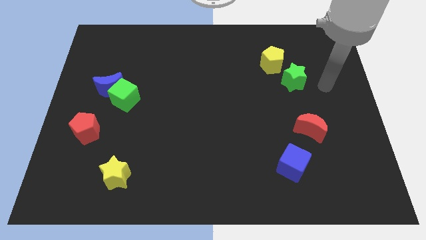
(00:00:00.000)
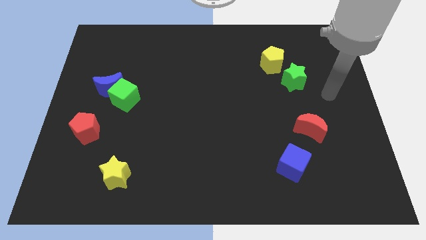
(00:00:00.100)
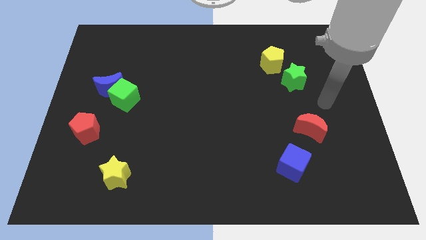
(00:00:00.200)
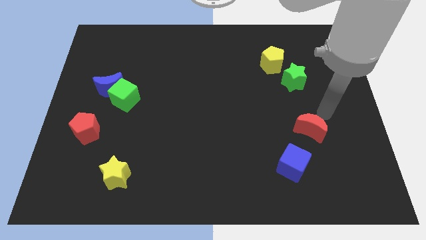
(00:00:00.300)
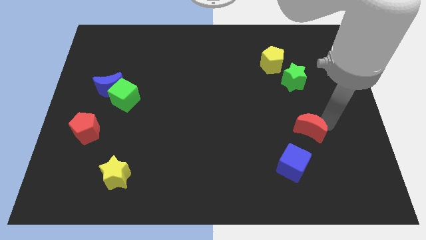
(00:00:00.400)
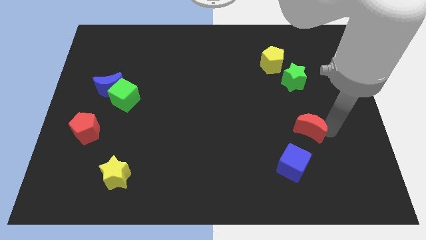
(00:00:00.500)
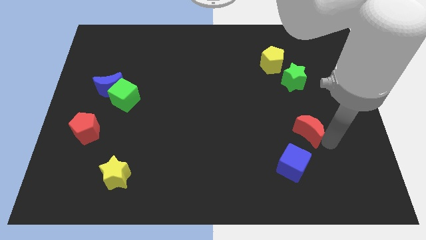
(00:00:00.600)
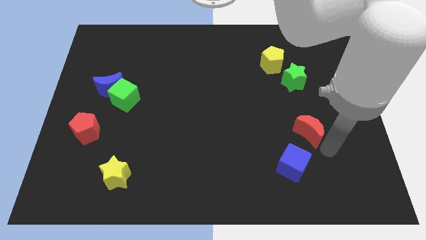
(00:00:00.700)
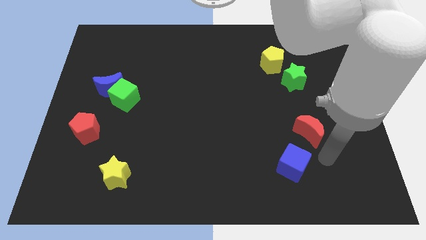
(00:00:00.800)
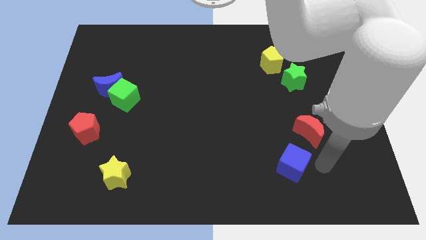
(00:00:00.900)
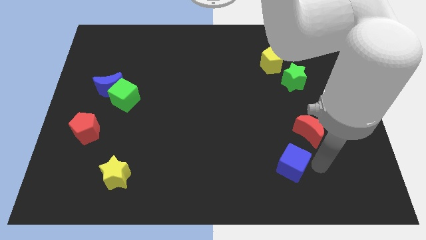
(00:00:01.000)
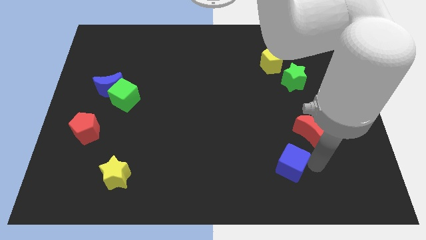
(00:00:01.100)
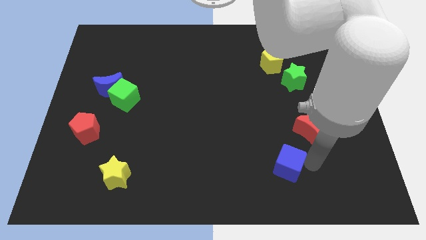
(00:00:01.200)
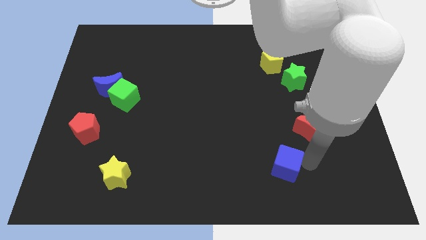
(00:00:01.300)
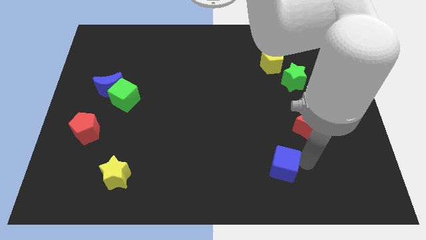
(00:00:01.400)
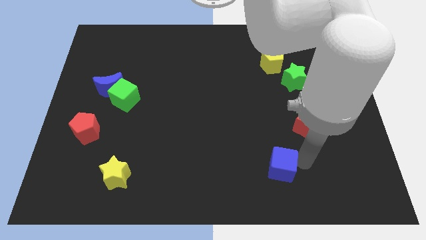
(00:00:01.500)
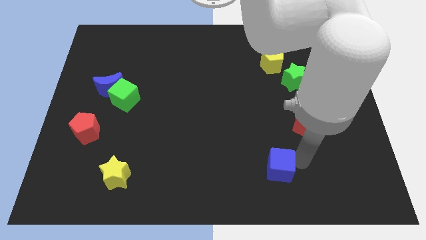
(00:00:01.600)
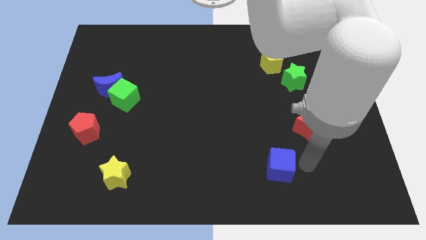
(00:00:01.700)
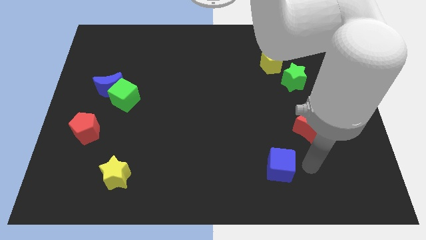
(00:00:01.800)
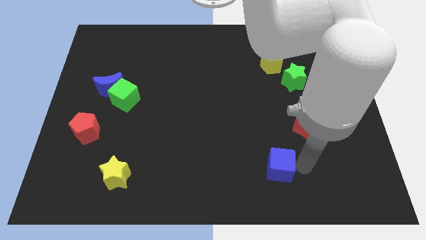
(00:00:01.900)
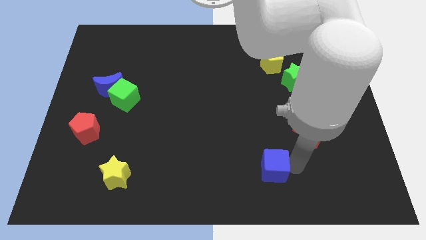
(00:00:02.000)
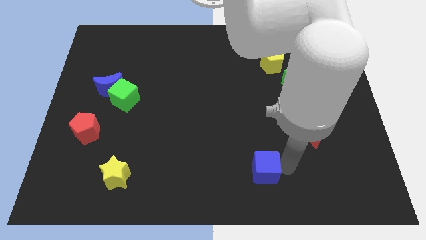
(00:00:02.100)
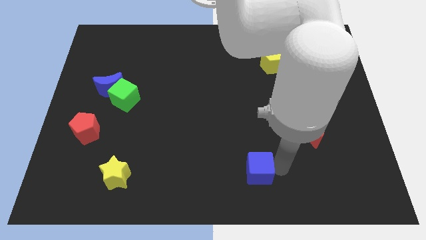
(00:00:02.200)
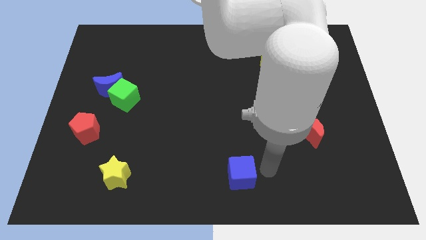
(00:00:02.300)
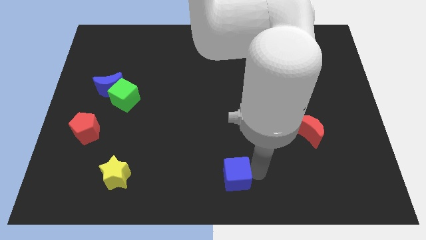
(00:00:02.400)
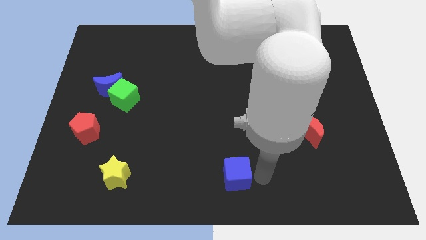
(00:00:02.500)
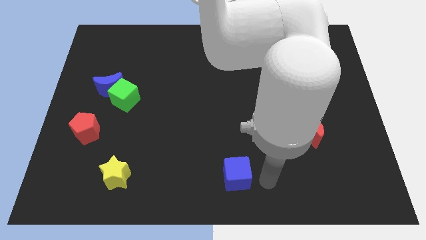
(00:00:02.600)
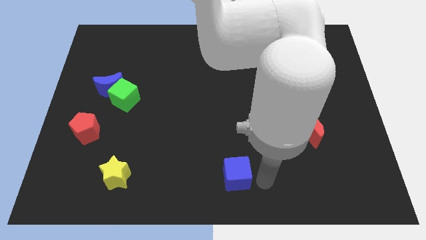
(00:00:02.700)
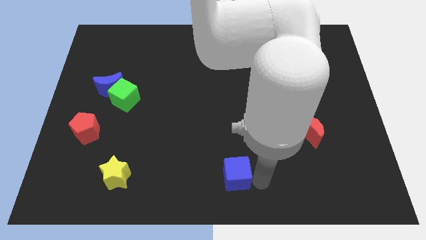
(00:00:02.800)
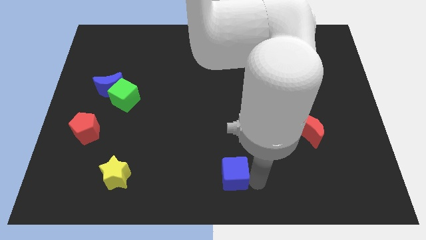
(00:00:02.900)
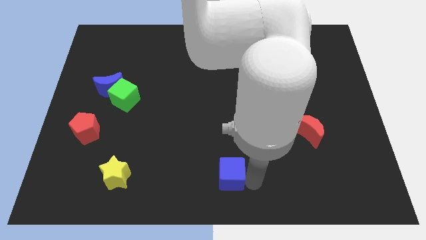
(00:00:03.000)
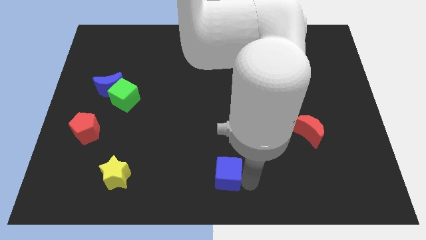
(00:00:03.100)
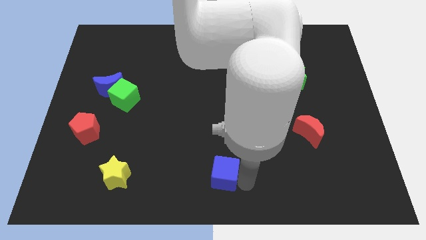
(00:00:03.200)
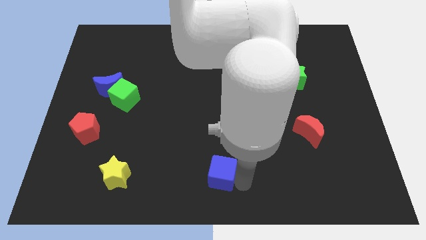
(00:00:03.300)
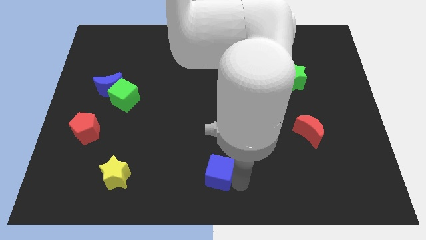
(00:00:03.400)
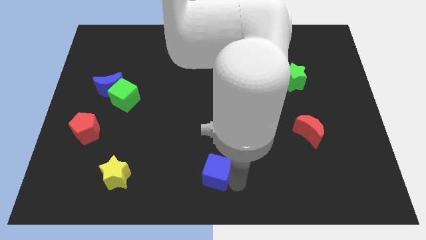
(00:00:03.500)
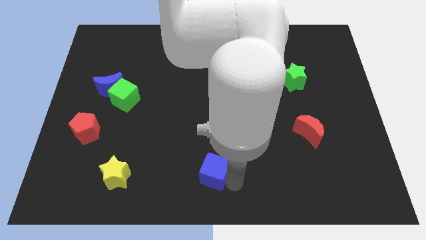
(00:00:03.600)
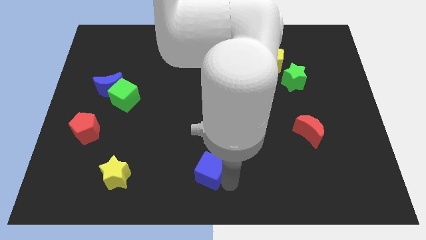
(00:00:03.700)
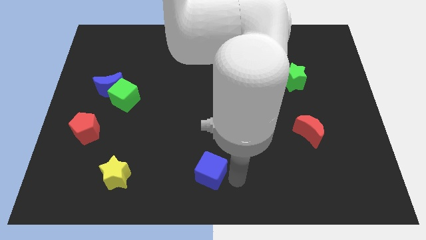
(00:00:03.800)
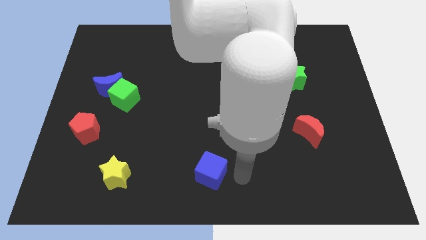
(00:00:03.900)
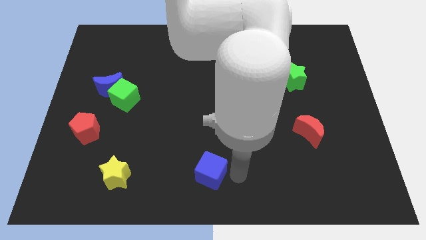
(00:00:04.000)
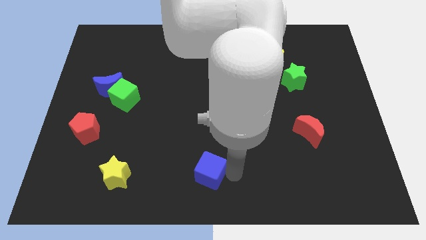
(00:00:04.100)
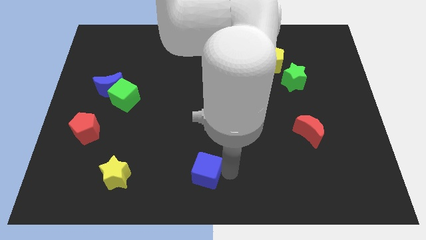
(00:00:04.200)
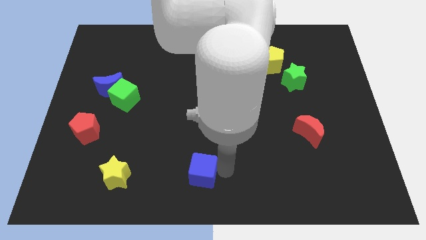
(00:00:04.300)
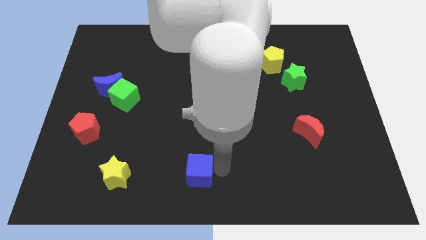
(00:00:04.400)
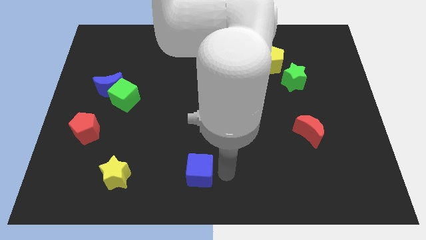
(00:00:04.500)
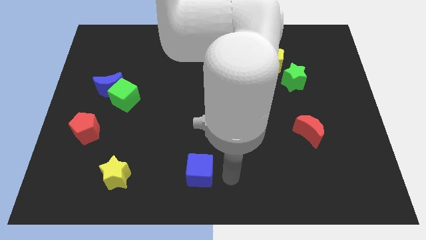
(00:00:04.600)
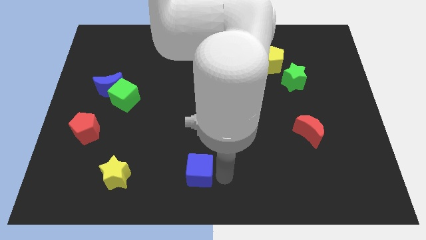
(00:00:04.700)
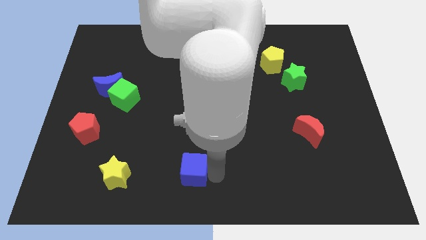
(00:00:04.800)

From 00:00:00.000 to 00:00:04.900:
slide the blue cube left

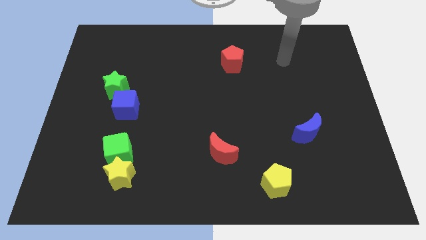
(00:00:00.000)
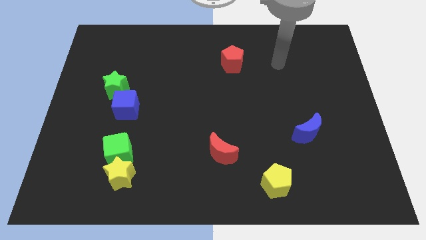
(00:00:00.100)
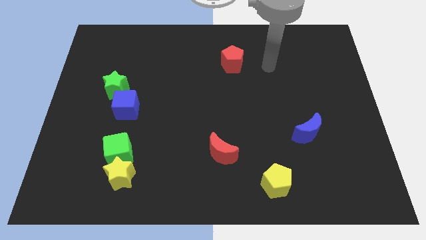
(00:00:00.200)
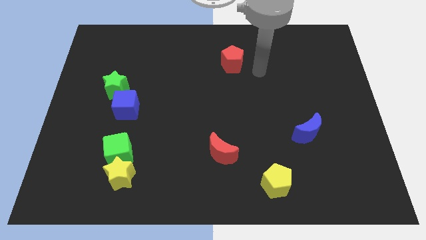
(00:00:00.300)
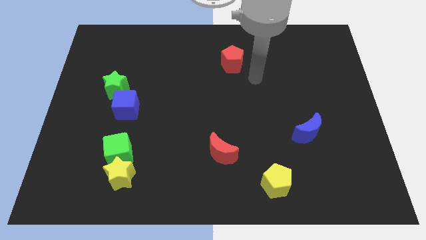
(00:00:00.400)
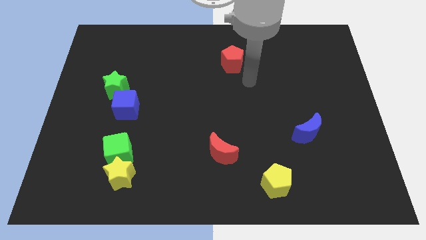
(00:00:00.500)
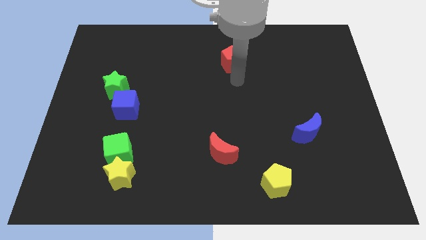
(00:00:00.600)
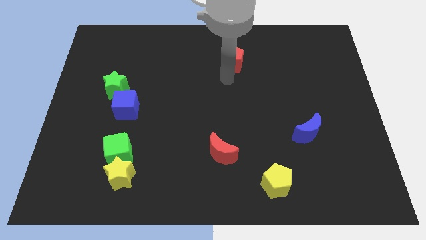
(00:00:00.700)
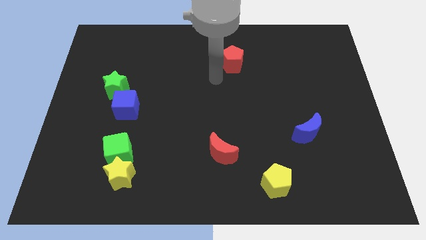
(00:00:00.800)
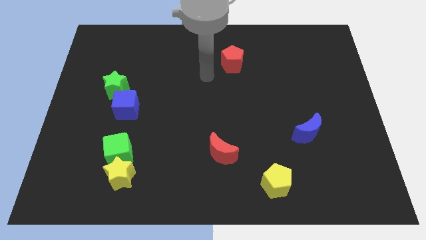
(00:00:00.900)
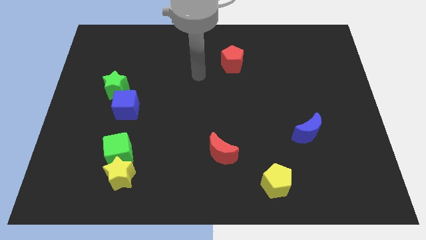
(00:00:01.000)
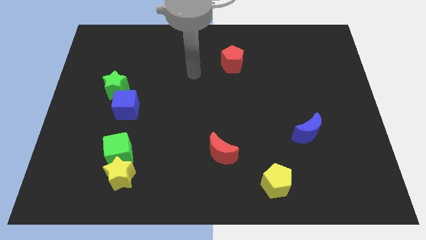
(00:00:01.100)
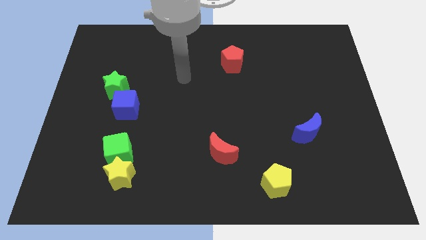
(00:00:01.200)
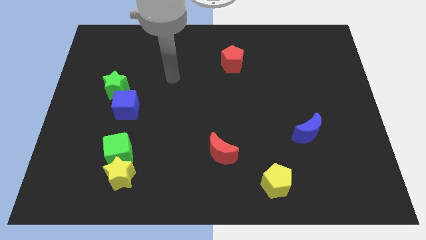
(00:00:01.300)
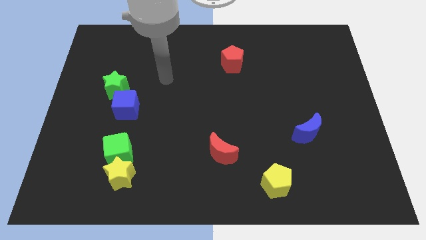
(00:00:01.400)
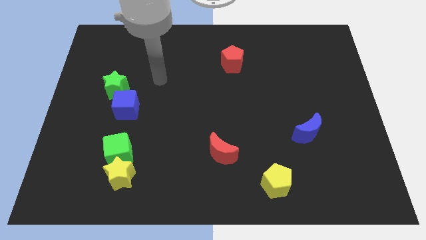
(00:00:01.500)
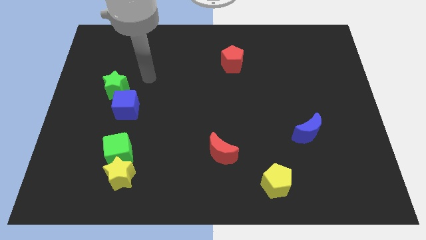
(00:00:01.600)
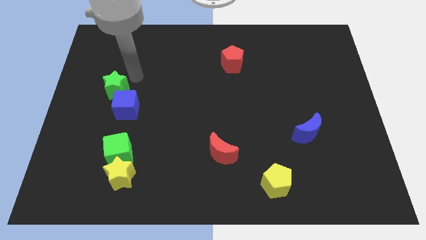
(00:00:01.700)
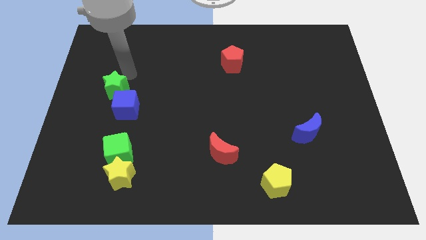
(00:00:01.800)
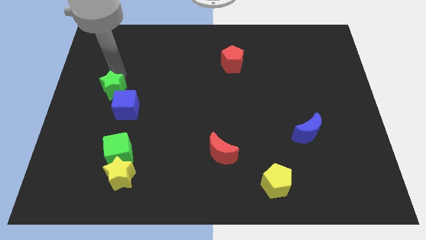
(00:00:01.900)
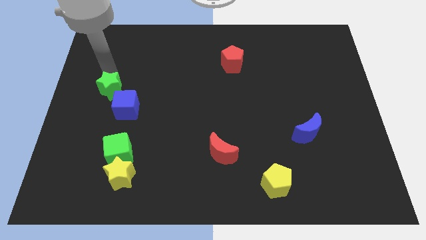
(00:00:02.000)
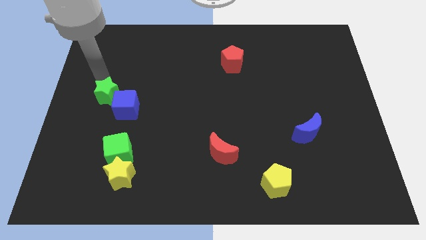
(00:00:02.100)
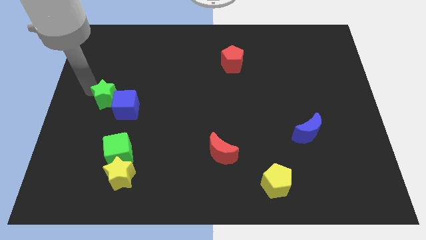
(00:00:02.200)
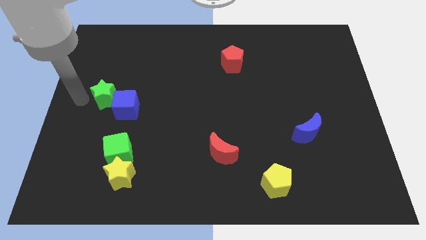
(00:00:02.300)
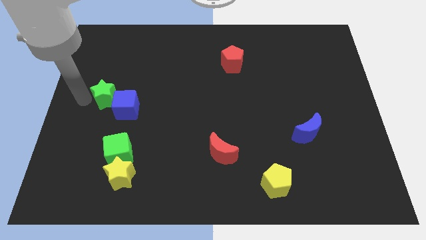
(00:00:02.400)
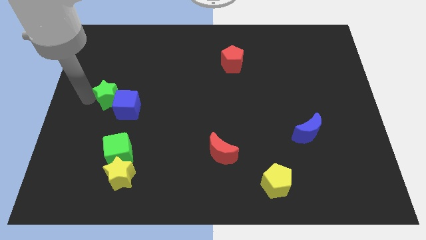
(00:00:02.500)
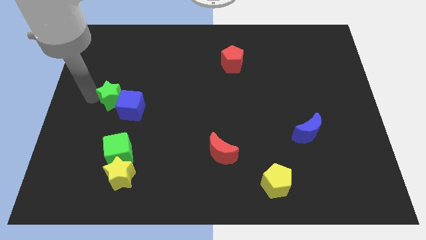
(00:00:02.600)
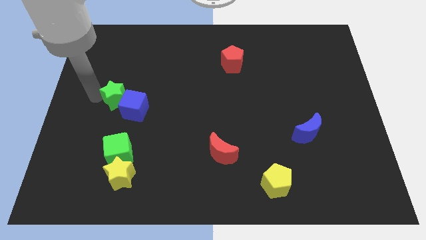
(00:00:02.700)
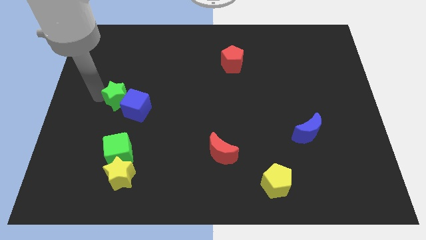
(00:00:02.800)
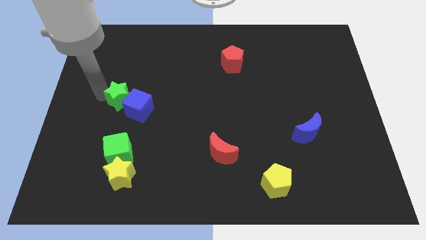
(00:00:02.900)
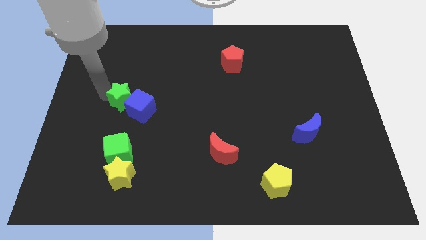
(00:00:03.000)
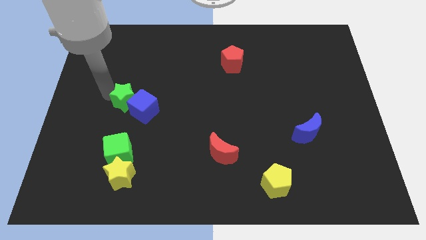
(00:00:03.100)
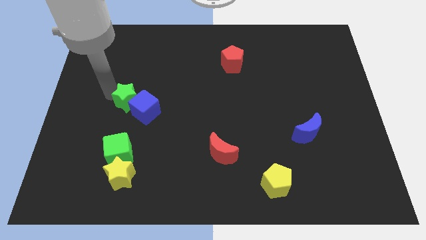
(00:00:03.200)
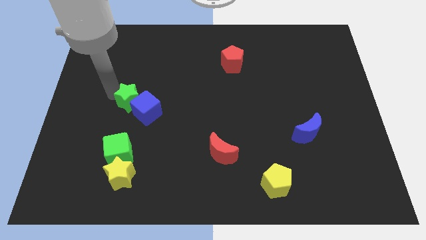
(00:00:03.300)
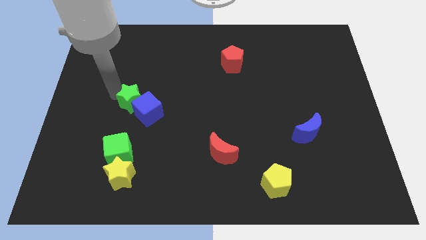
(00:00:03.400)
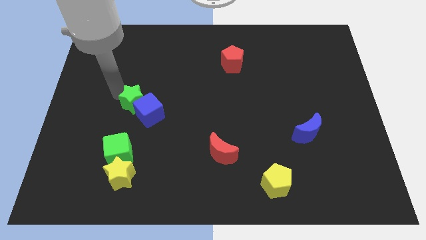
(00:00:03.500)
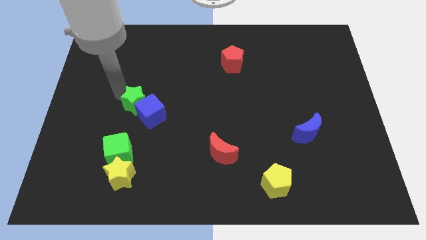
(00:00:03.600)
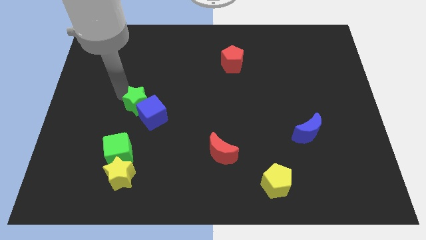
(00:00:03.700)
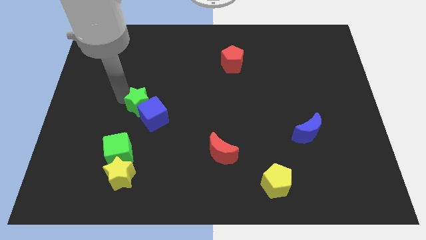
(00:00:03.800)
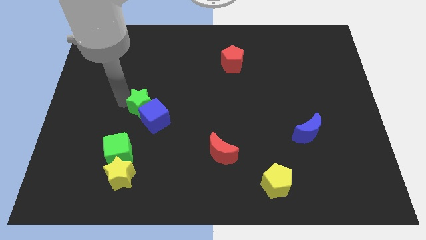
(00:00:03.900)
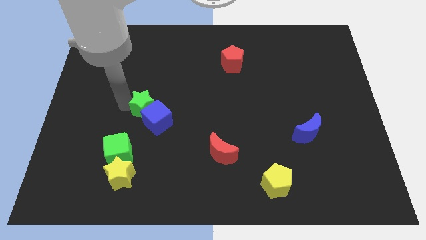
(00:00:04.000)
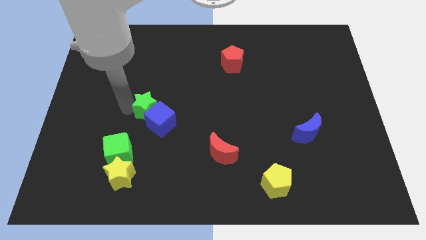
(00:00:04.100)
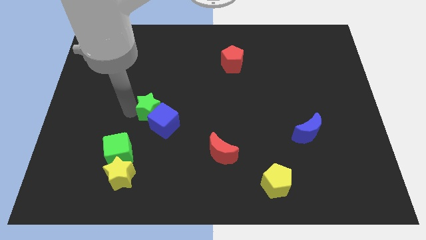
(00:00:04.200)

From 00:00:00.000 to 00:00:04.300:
slightly push the green star right
